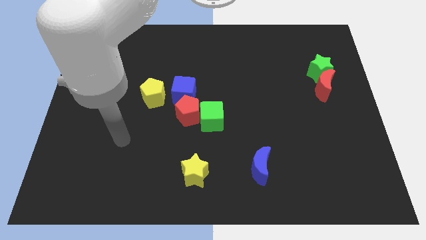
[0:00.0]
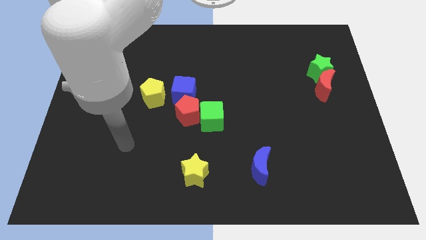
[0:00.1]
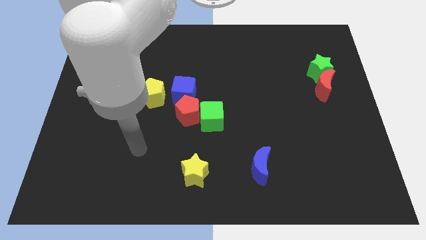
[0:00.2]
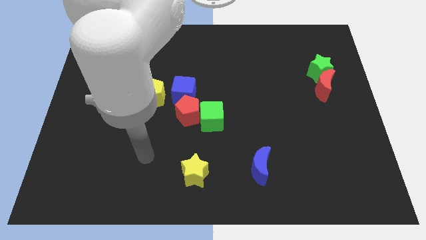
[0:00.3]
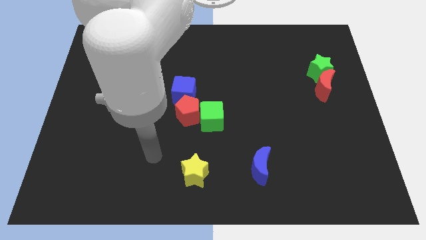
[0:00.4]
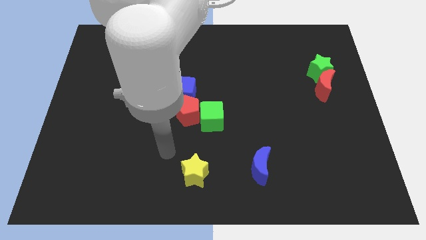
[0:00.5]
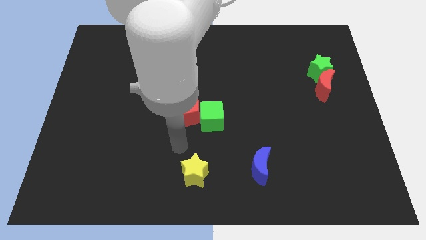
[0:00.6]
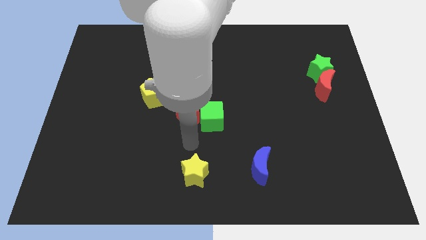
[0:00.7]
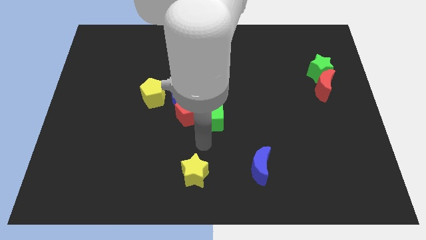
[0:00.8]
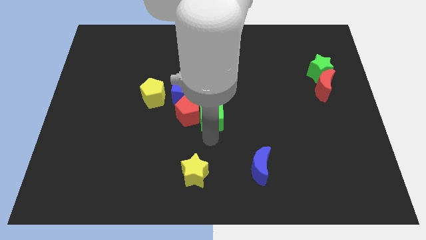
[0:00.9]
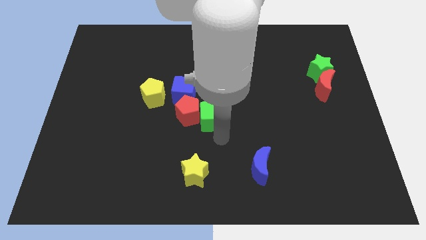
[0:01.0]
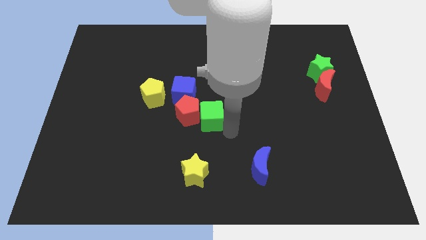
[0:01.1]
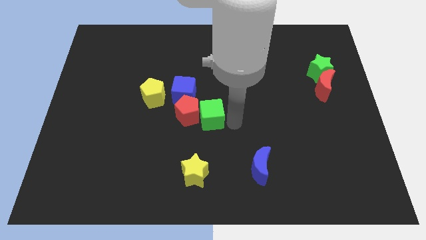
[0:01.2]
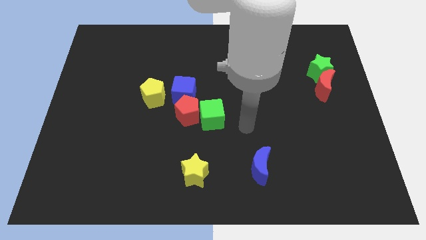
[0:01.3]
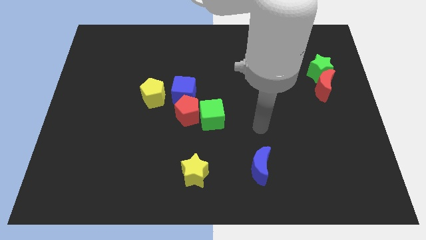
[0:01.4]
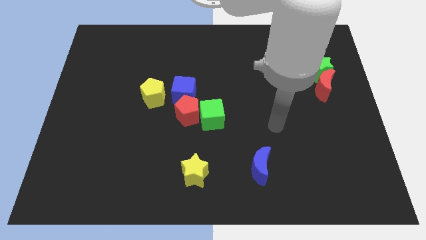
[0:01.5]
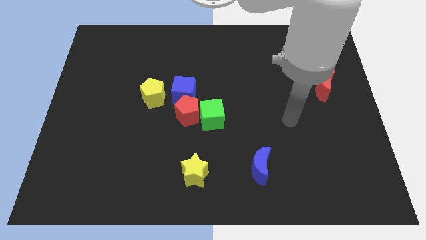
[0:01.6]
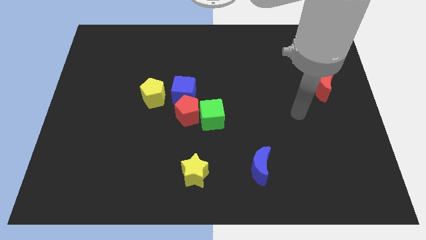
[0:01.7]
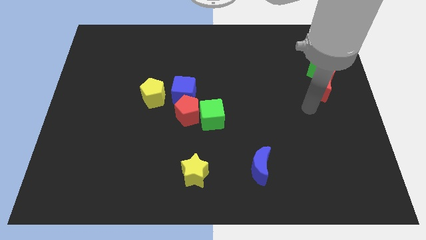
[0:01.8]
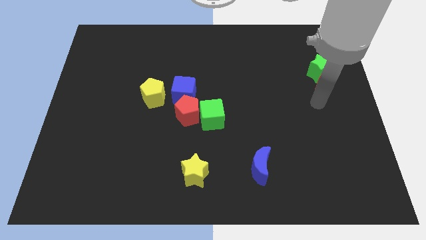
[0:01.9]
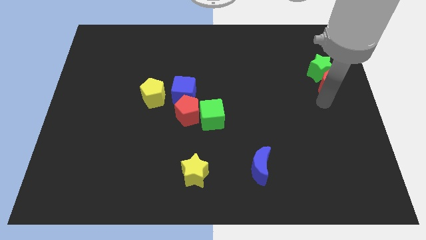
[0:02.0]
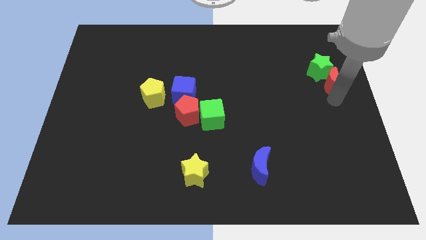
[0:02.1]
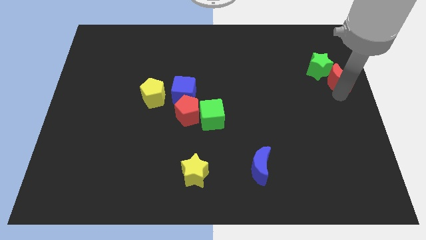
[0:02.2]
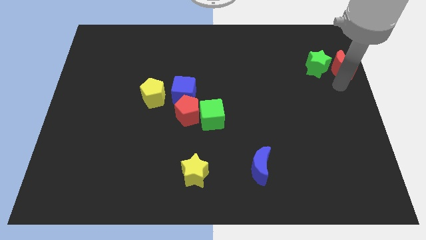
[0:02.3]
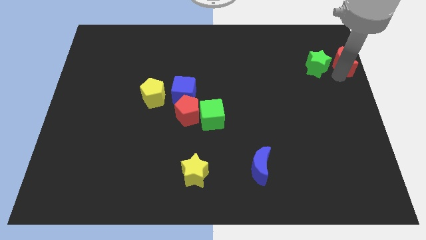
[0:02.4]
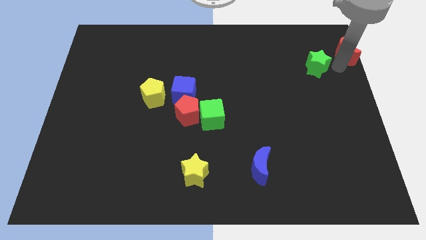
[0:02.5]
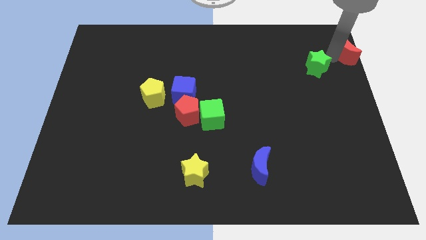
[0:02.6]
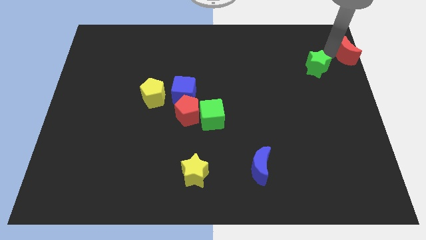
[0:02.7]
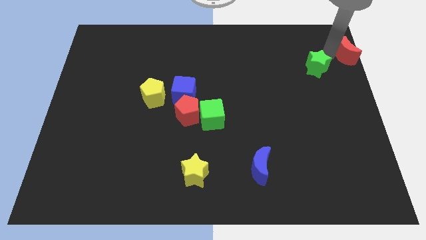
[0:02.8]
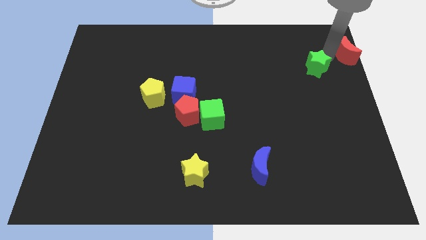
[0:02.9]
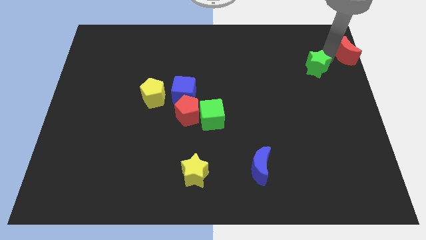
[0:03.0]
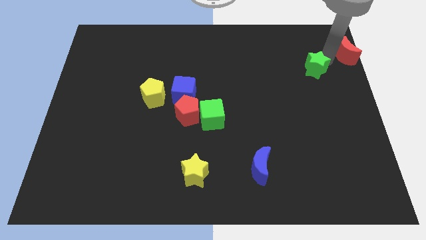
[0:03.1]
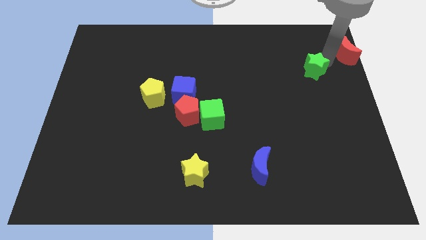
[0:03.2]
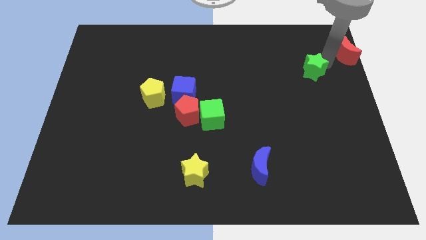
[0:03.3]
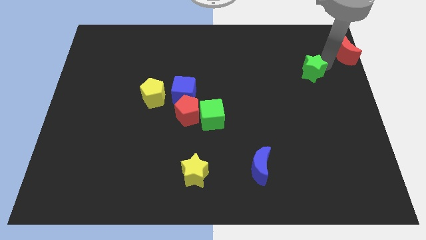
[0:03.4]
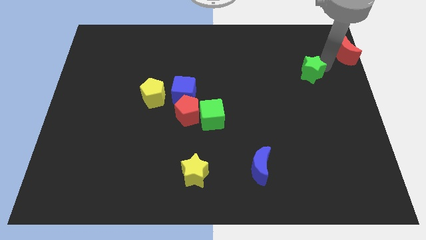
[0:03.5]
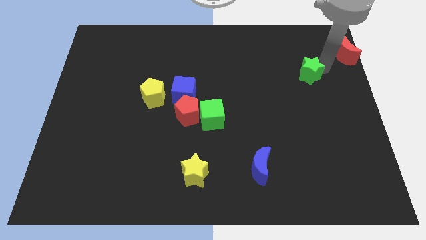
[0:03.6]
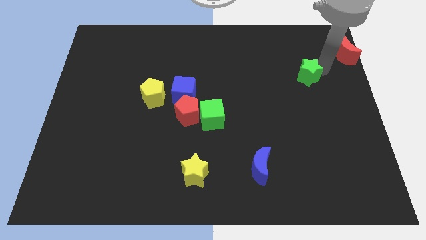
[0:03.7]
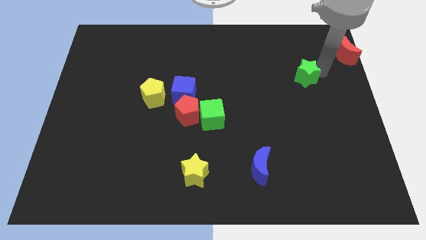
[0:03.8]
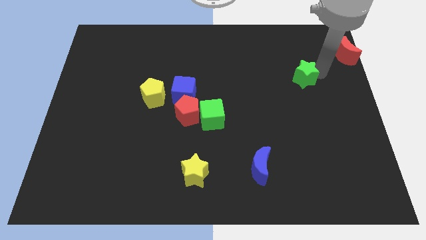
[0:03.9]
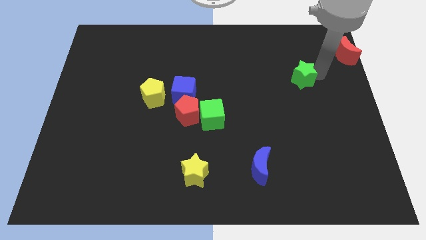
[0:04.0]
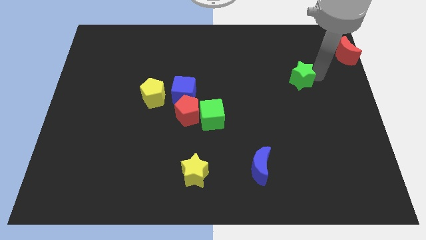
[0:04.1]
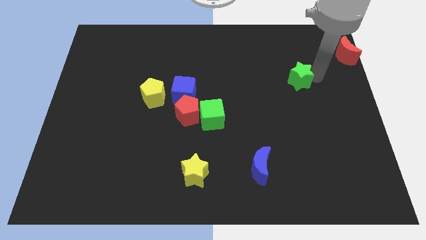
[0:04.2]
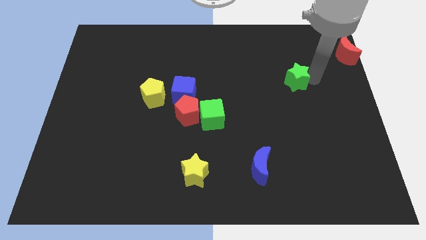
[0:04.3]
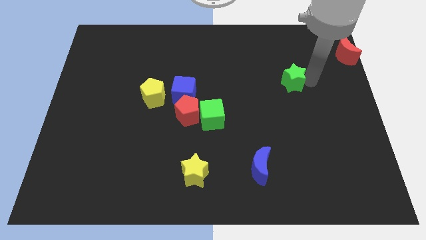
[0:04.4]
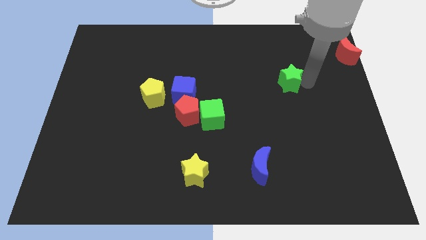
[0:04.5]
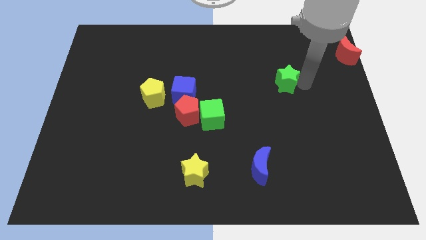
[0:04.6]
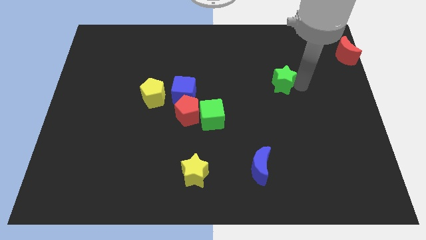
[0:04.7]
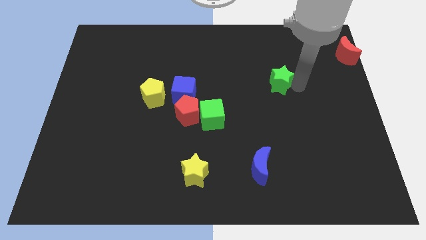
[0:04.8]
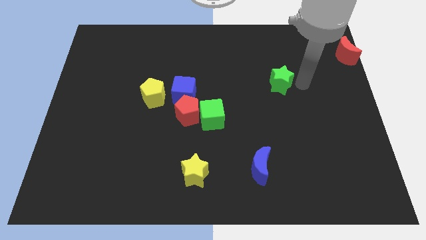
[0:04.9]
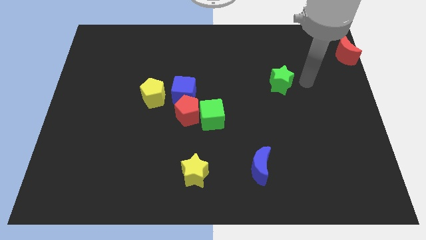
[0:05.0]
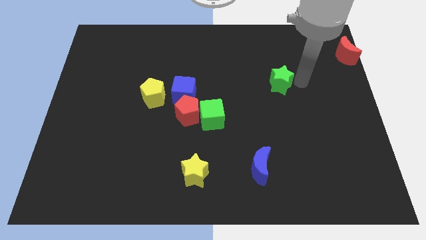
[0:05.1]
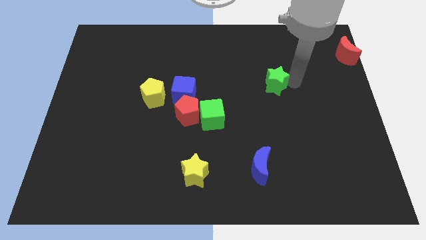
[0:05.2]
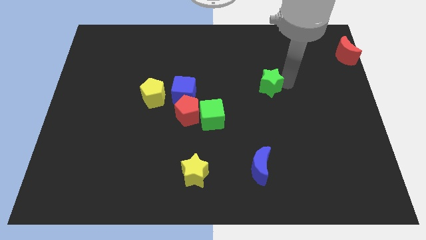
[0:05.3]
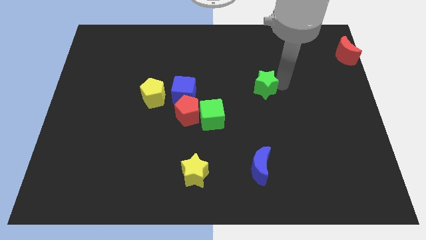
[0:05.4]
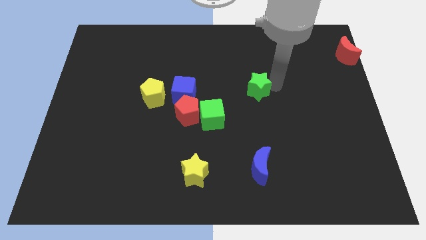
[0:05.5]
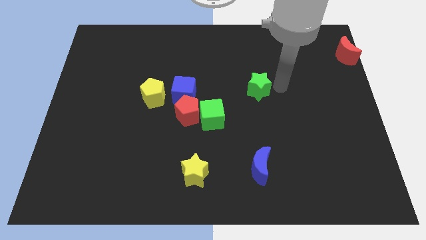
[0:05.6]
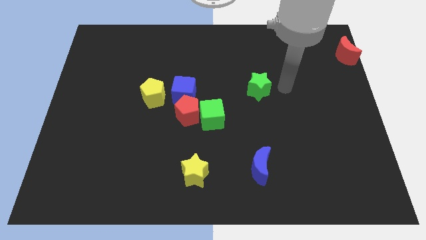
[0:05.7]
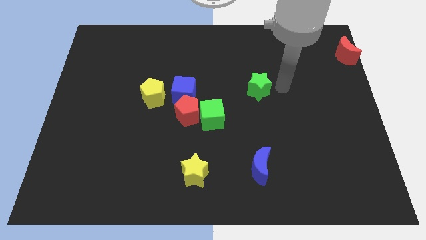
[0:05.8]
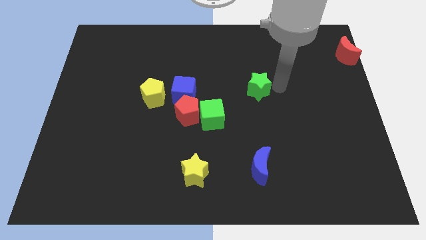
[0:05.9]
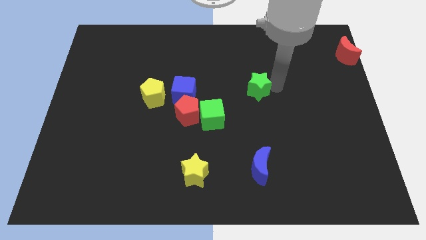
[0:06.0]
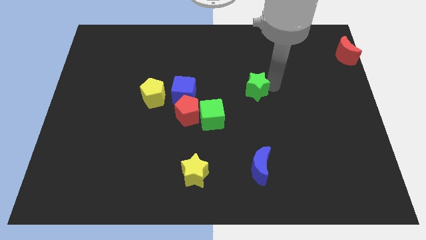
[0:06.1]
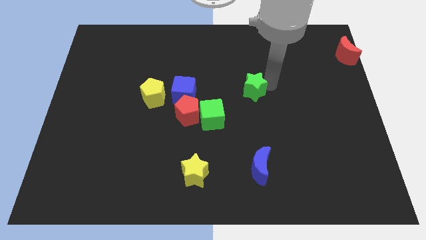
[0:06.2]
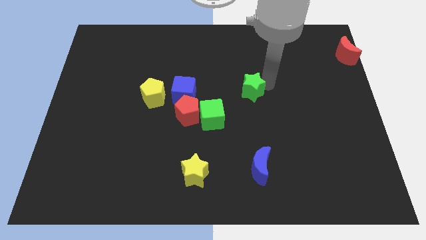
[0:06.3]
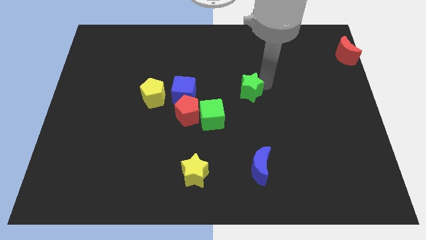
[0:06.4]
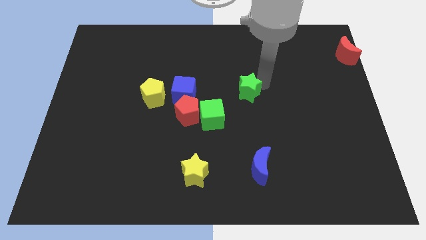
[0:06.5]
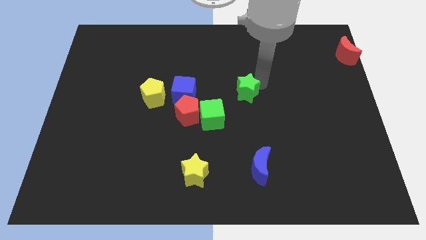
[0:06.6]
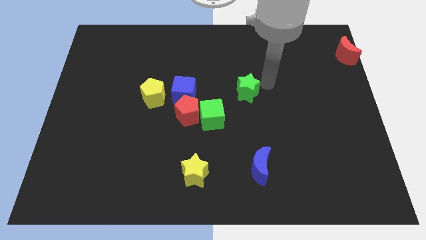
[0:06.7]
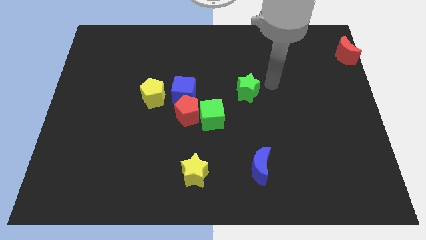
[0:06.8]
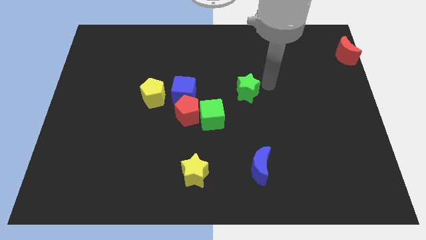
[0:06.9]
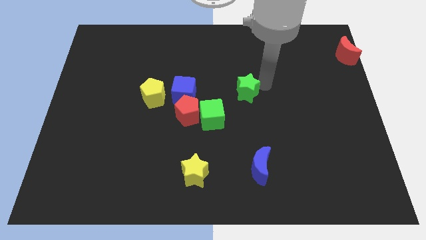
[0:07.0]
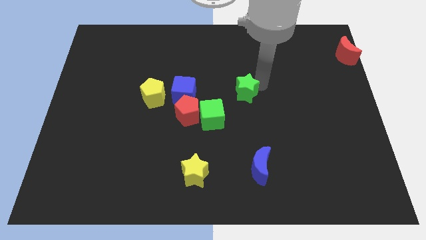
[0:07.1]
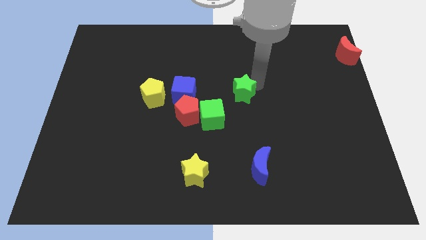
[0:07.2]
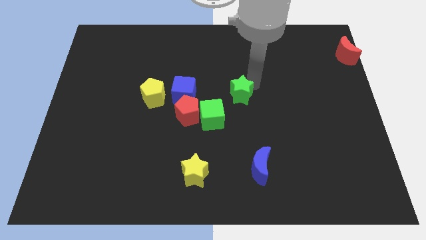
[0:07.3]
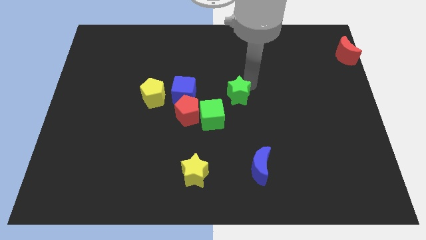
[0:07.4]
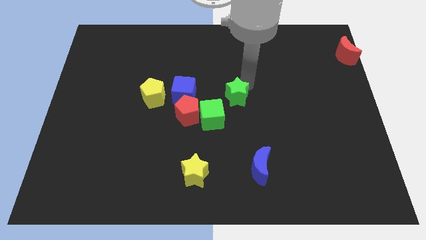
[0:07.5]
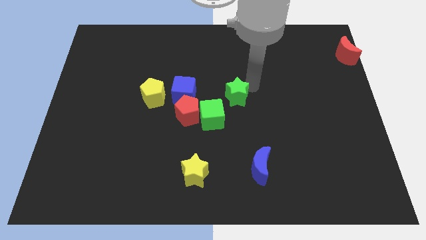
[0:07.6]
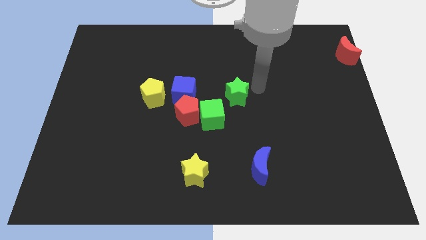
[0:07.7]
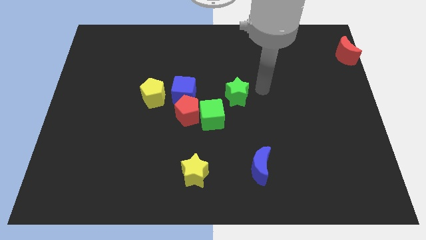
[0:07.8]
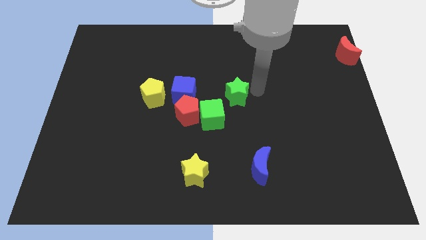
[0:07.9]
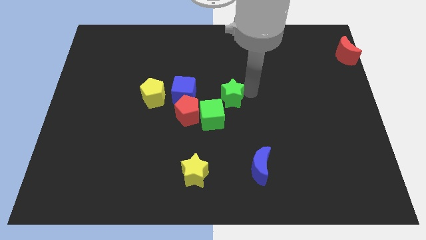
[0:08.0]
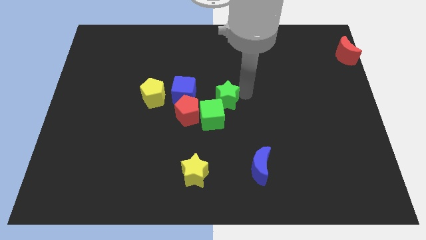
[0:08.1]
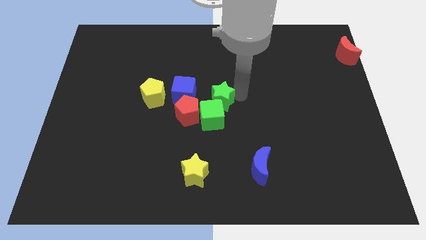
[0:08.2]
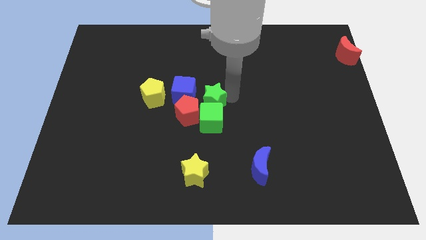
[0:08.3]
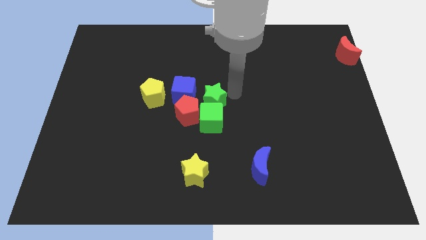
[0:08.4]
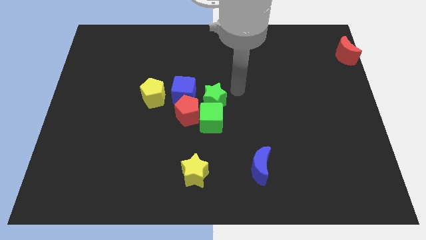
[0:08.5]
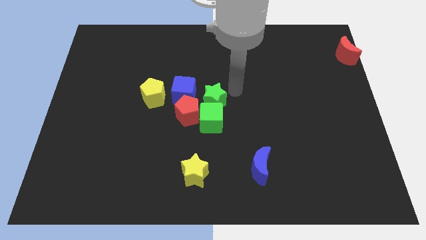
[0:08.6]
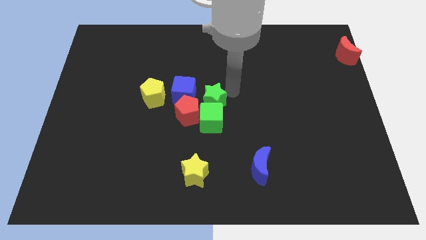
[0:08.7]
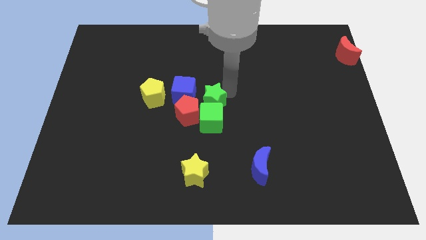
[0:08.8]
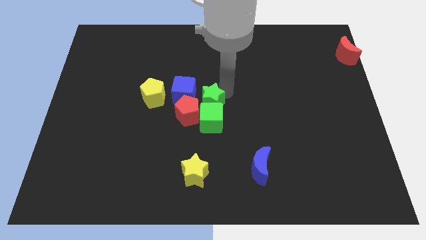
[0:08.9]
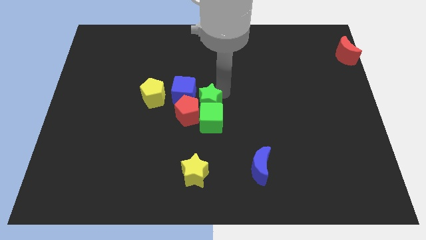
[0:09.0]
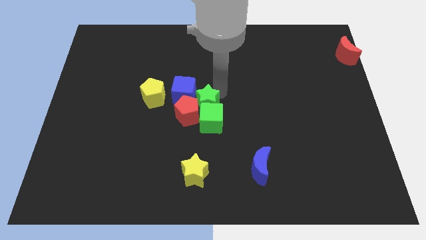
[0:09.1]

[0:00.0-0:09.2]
push the green star towards the red pentagon
